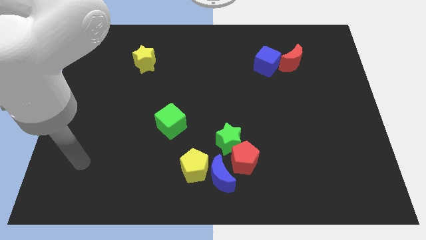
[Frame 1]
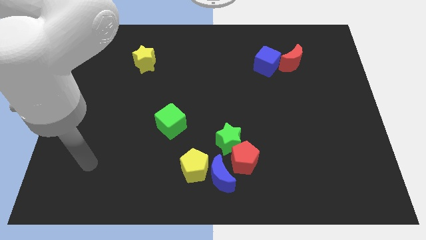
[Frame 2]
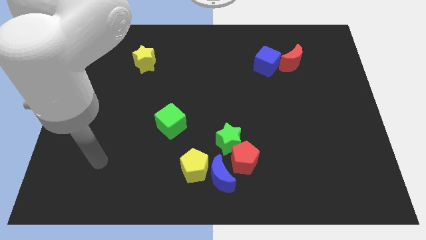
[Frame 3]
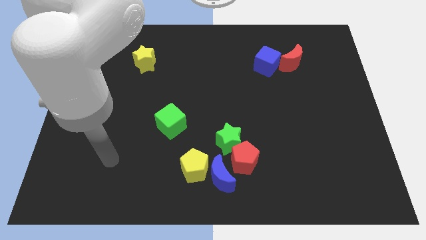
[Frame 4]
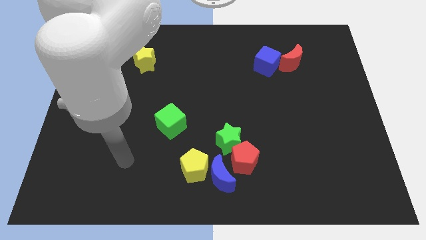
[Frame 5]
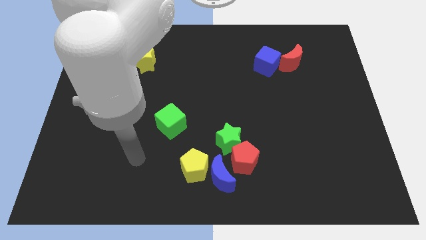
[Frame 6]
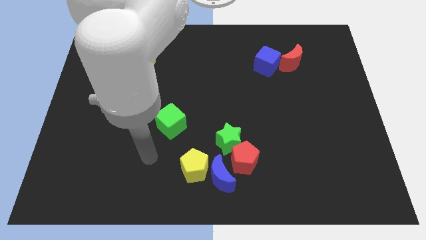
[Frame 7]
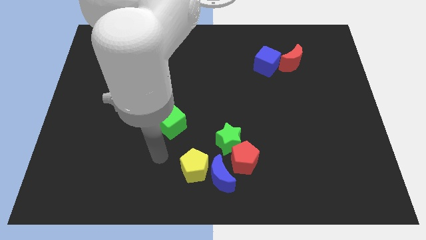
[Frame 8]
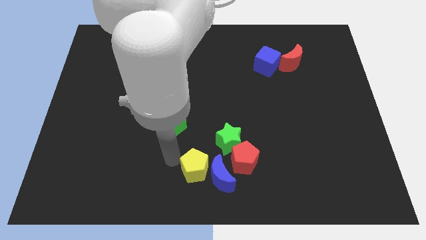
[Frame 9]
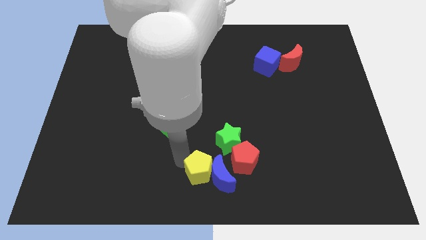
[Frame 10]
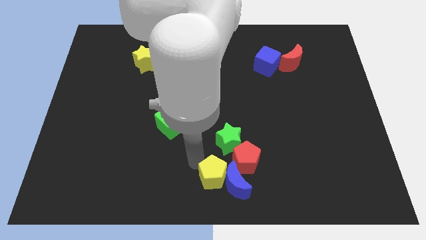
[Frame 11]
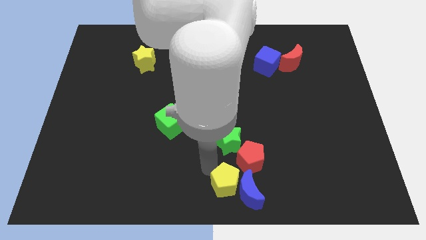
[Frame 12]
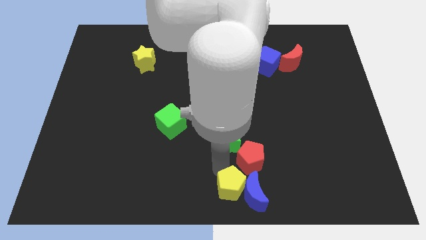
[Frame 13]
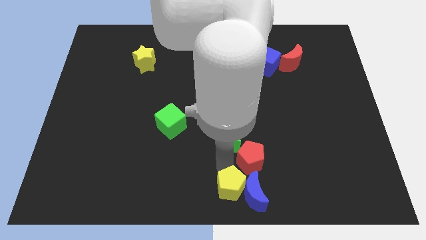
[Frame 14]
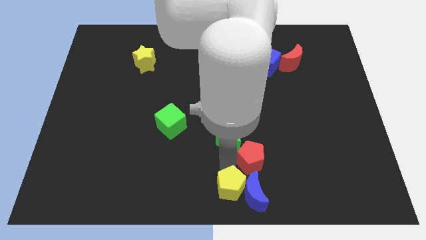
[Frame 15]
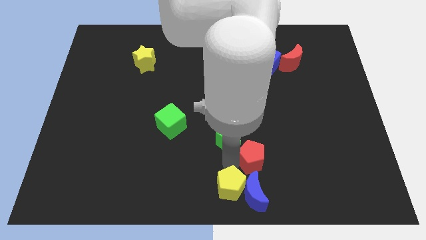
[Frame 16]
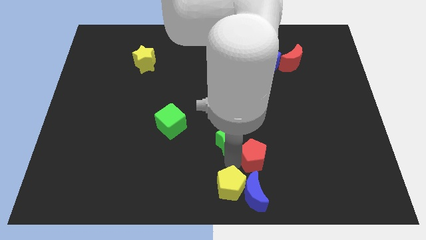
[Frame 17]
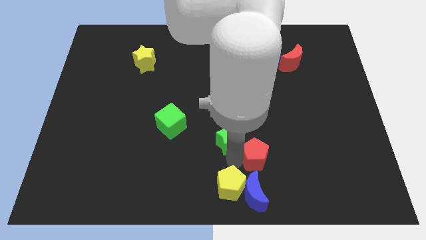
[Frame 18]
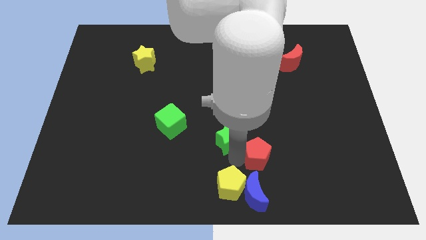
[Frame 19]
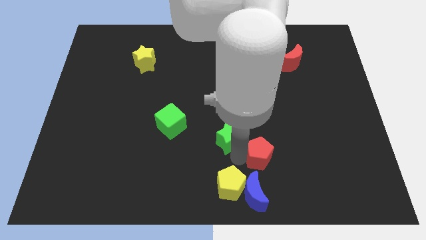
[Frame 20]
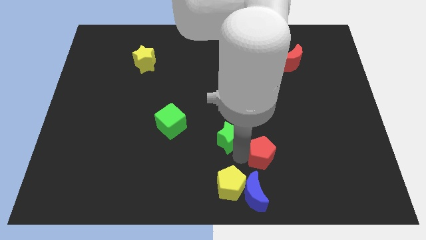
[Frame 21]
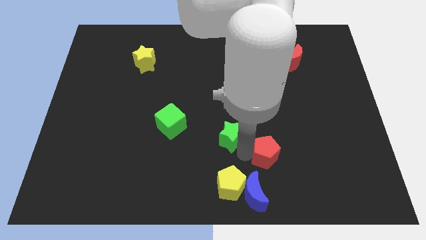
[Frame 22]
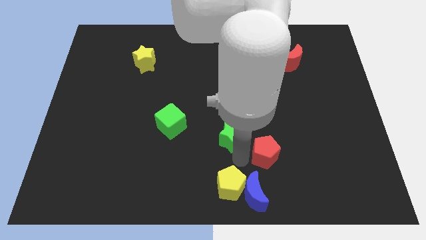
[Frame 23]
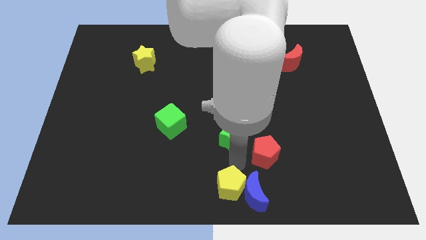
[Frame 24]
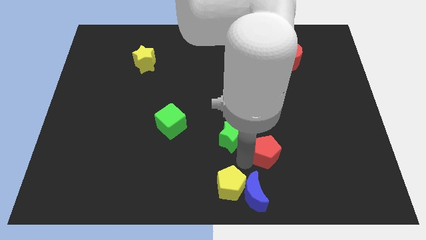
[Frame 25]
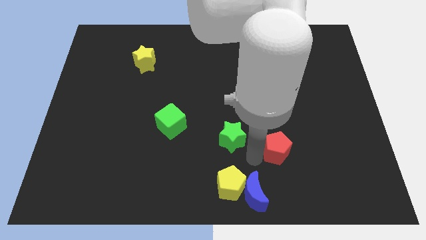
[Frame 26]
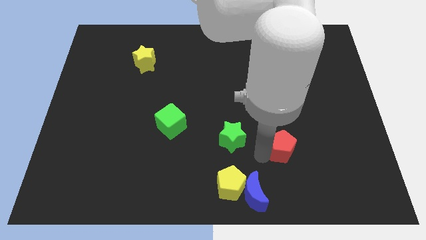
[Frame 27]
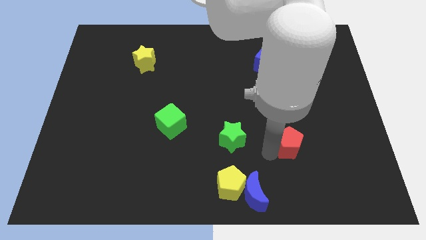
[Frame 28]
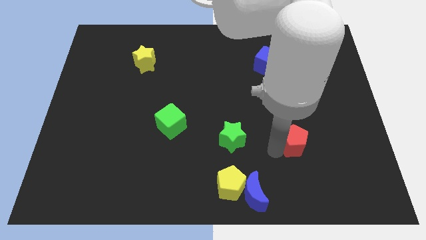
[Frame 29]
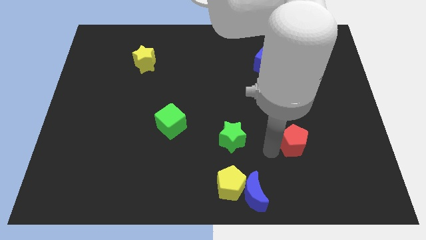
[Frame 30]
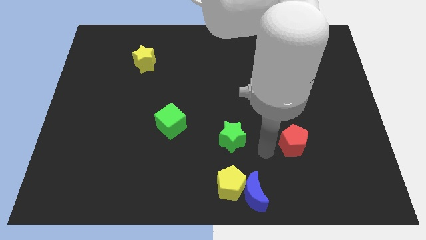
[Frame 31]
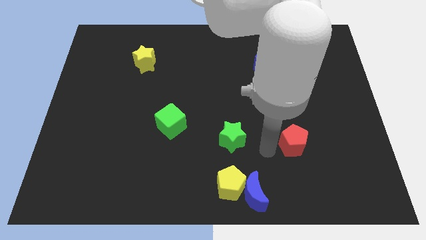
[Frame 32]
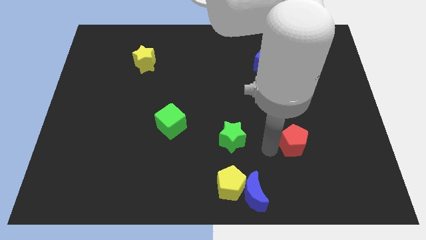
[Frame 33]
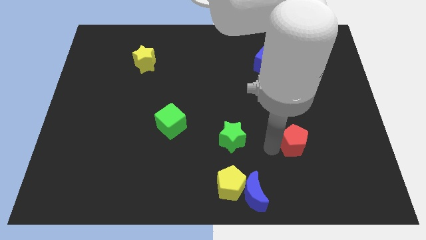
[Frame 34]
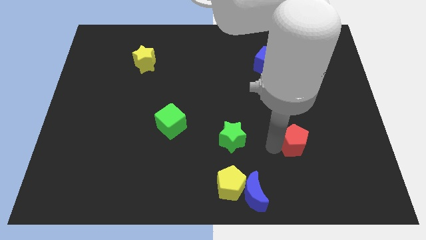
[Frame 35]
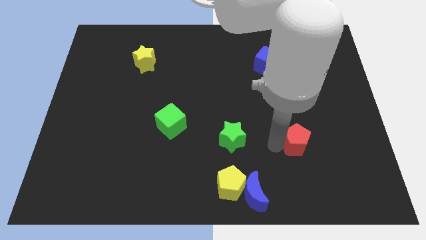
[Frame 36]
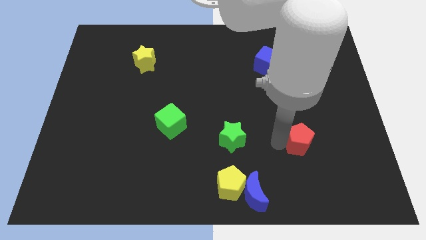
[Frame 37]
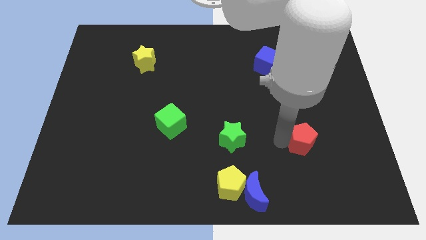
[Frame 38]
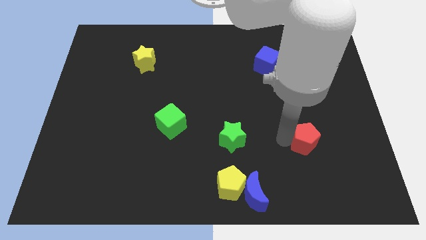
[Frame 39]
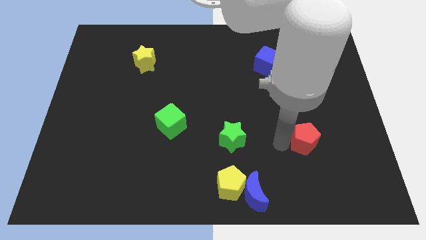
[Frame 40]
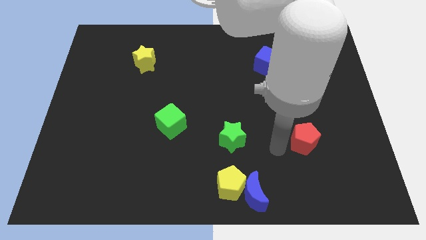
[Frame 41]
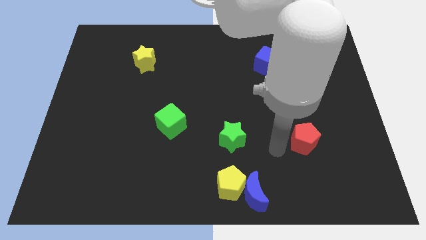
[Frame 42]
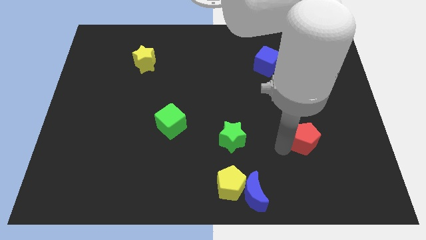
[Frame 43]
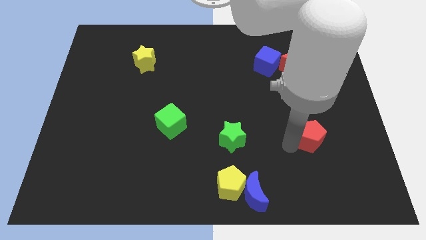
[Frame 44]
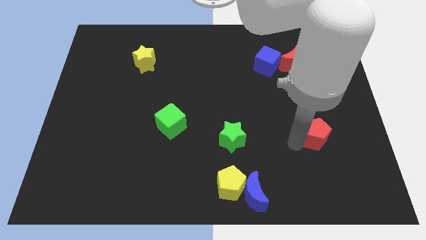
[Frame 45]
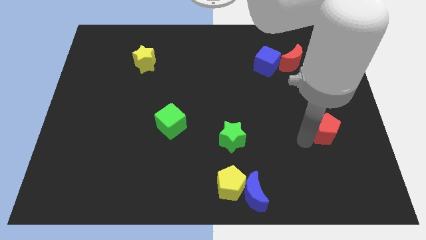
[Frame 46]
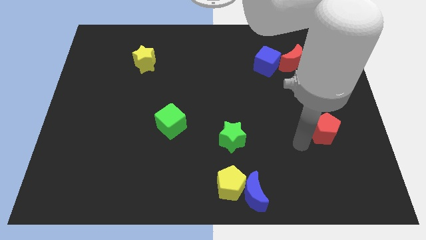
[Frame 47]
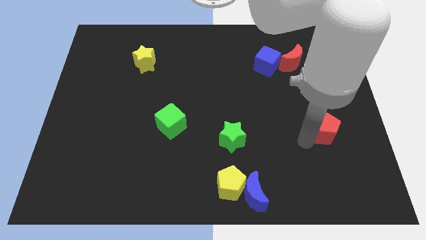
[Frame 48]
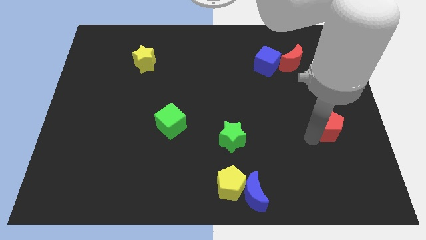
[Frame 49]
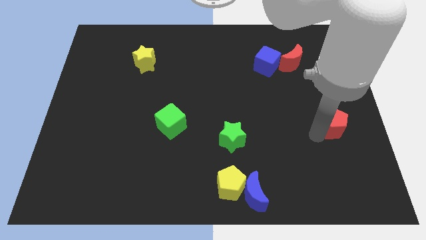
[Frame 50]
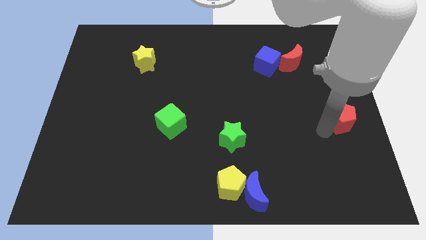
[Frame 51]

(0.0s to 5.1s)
slide the red pentagon to the center right
